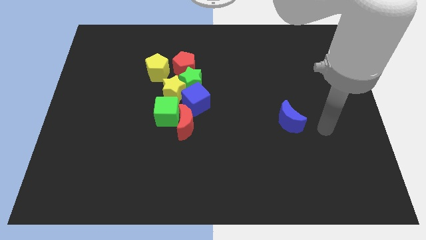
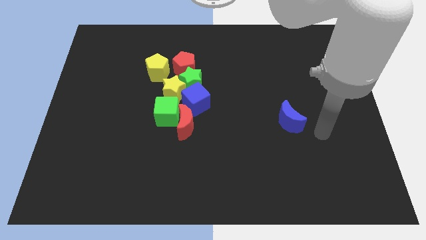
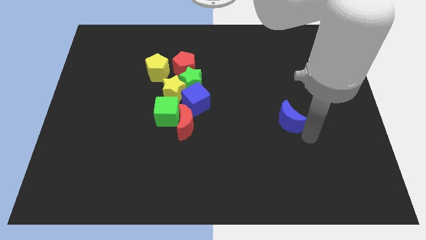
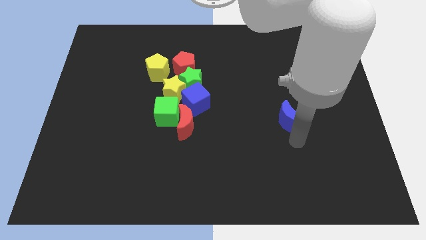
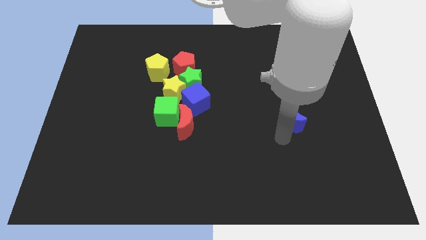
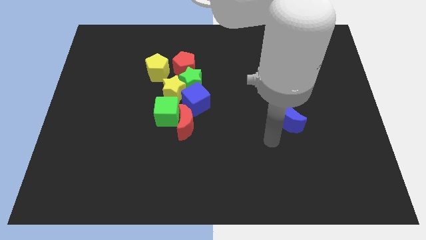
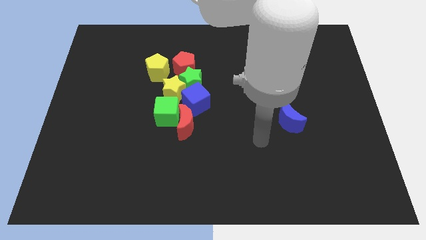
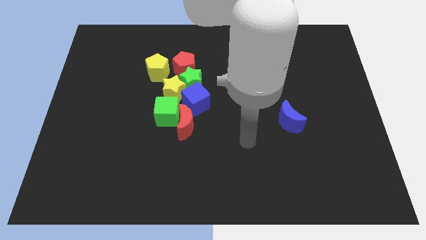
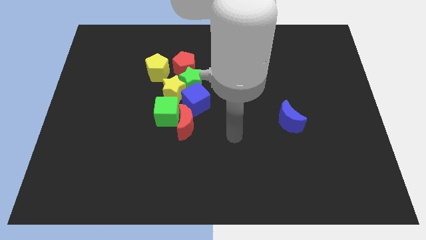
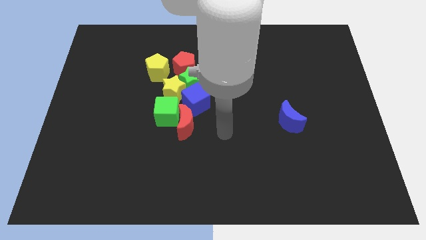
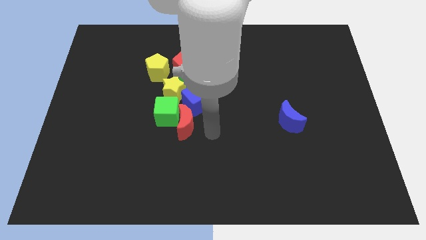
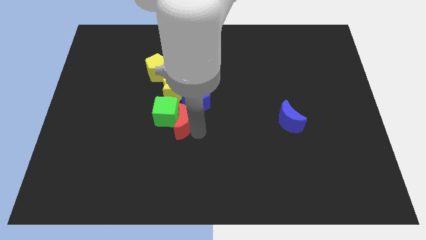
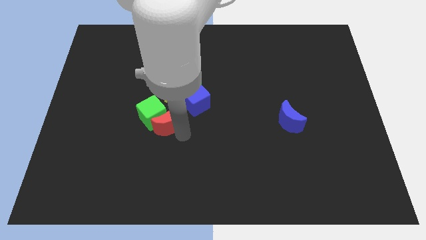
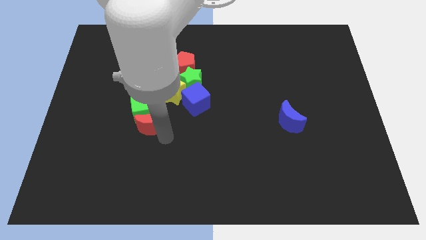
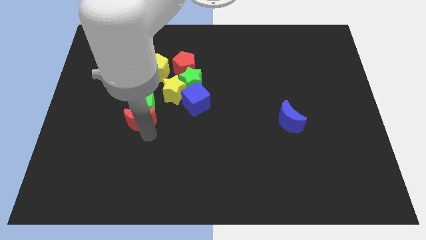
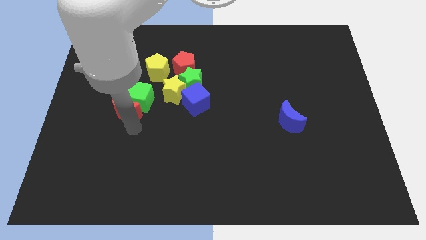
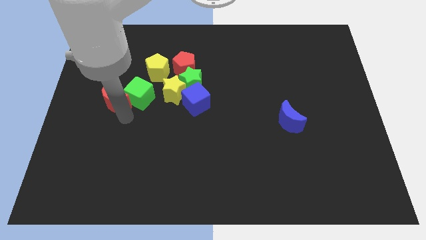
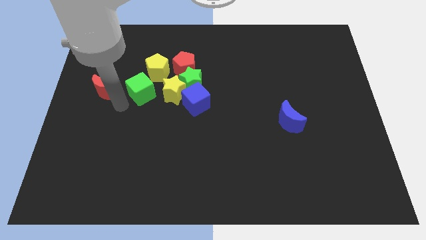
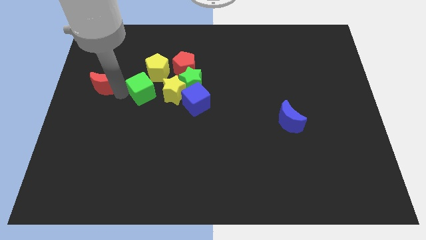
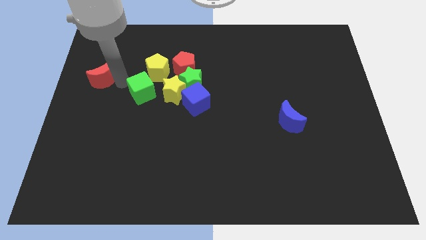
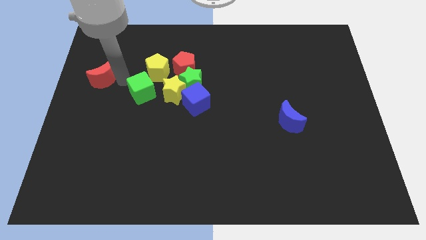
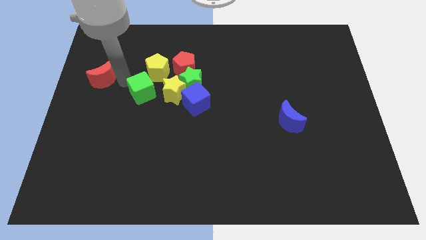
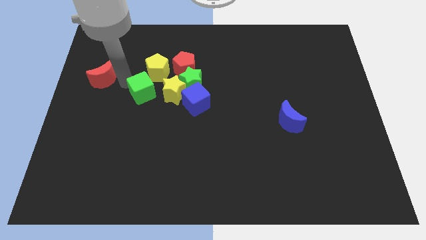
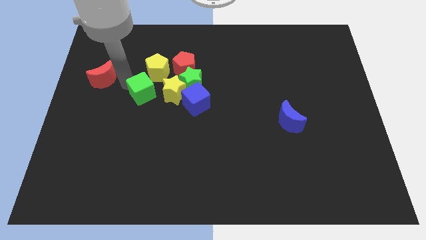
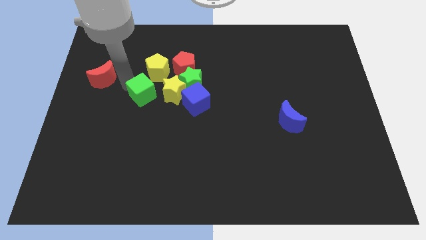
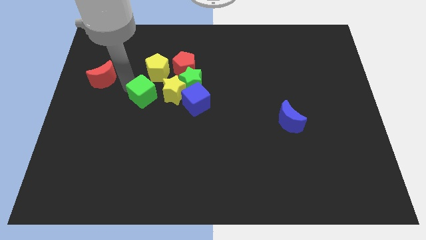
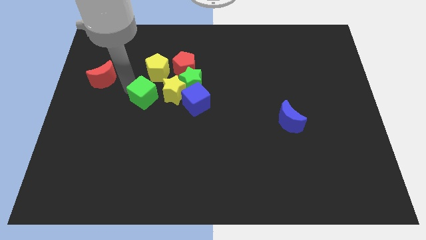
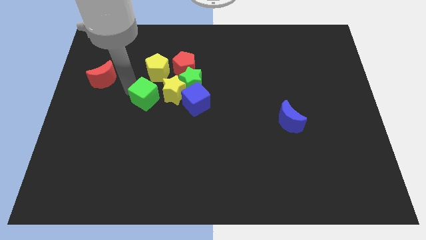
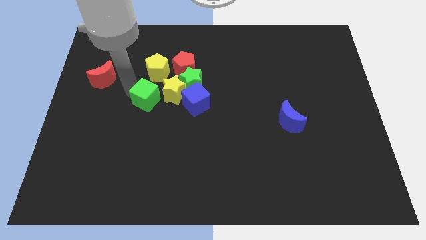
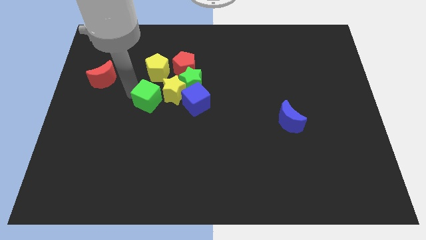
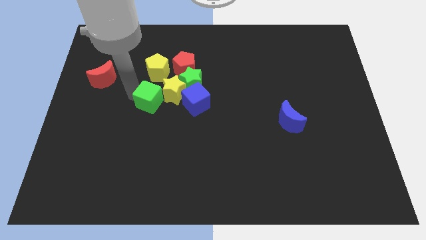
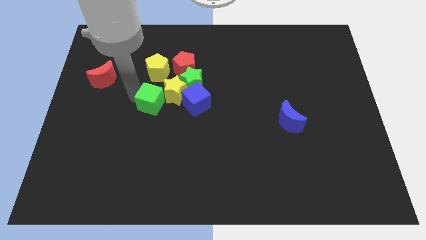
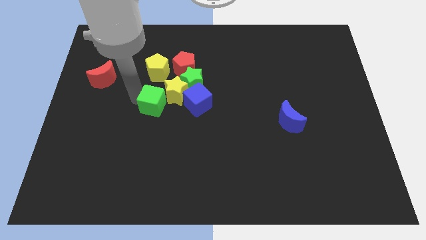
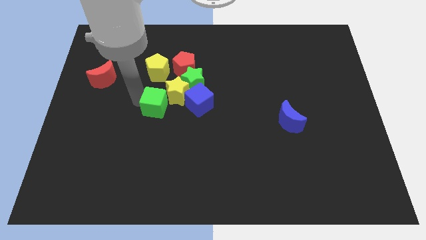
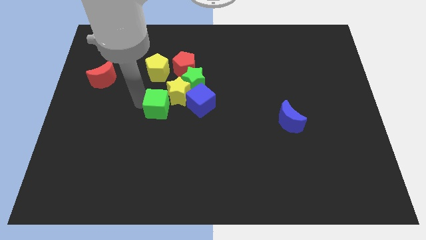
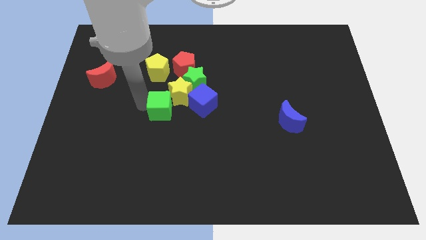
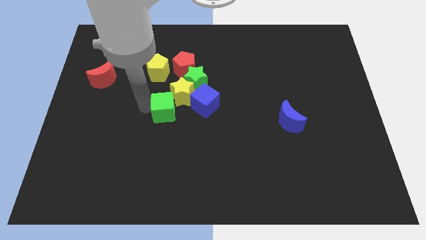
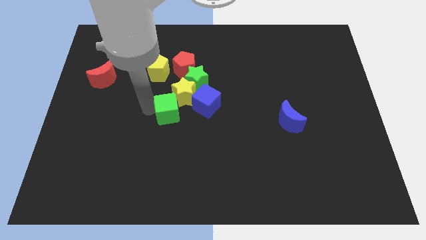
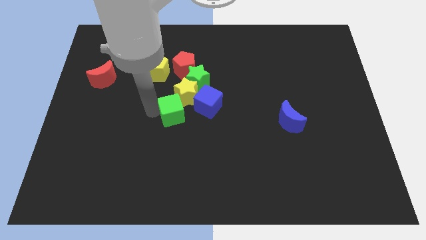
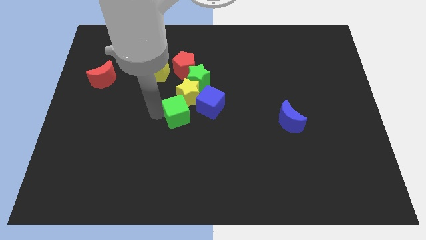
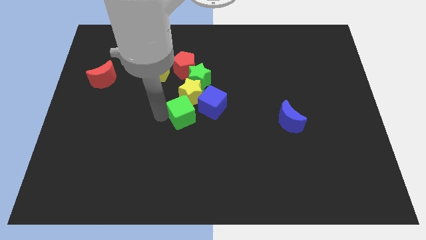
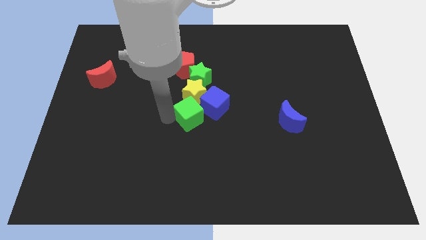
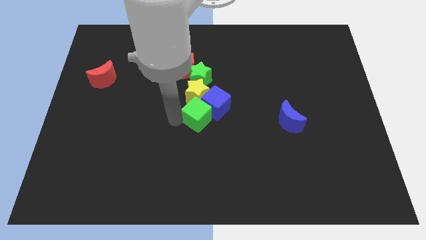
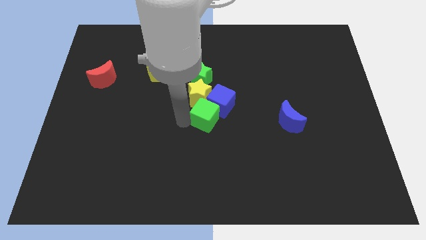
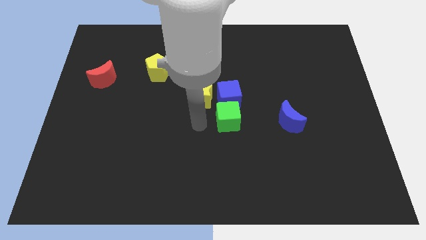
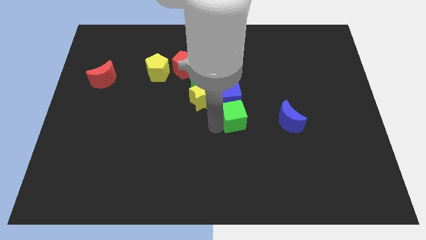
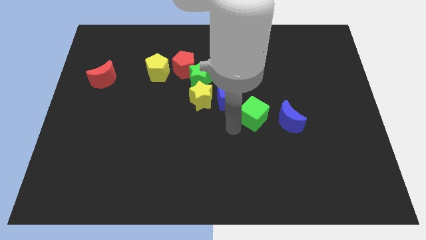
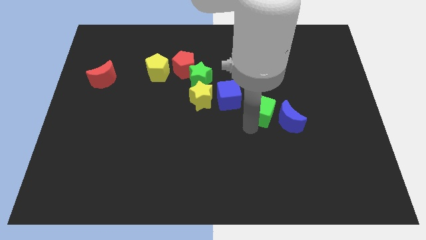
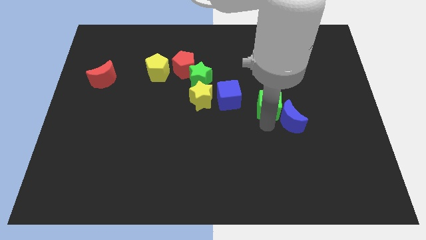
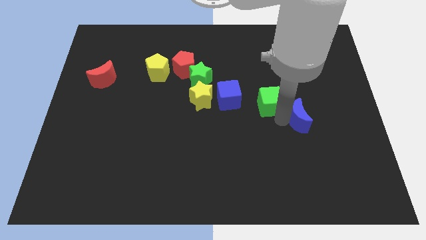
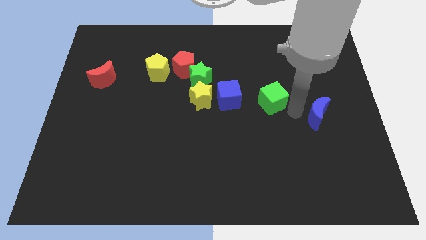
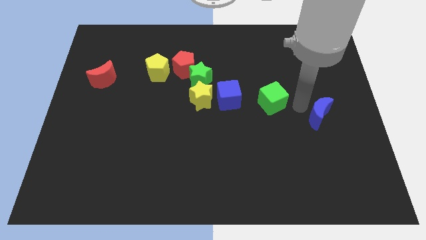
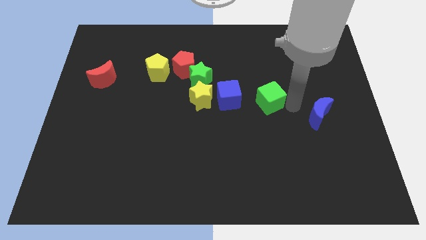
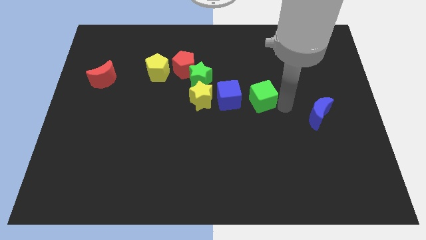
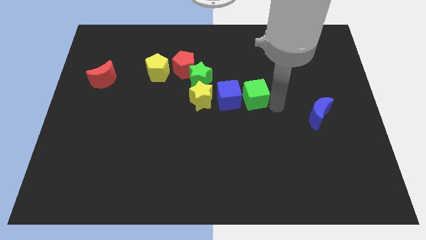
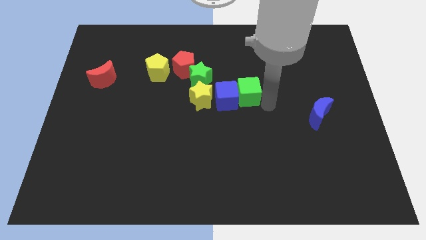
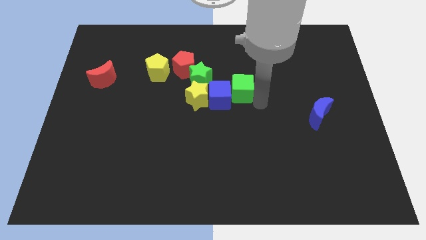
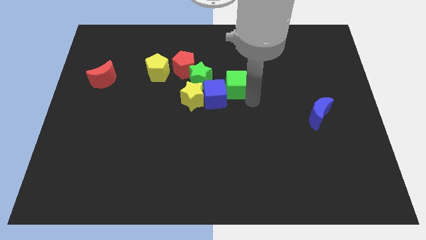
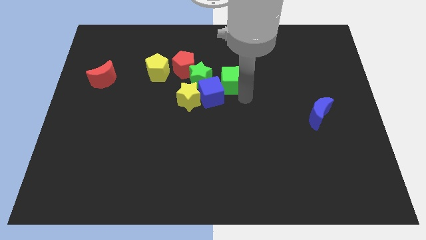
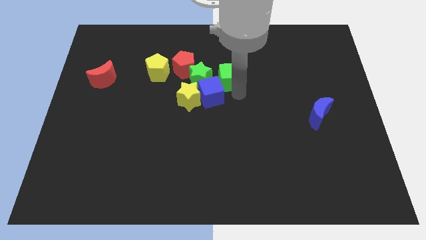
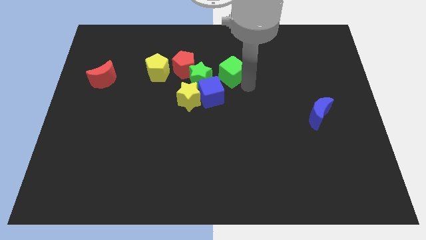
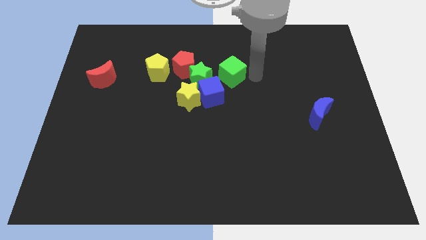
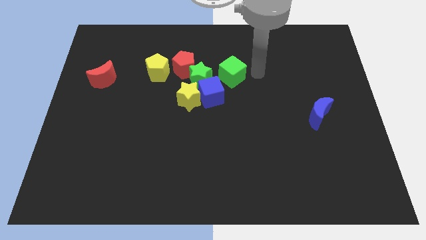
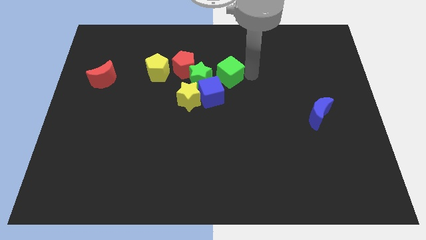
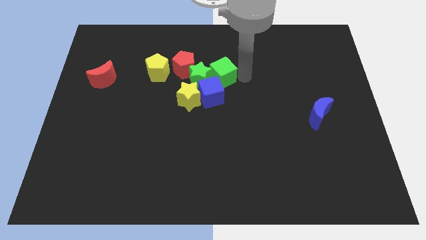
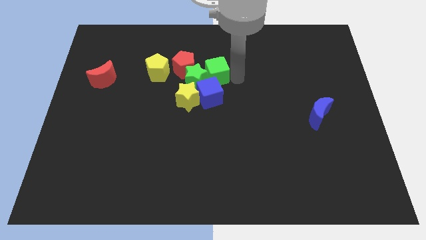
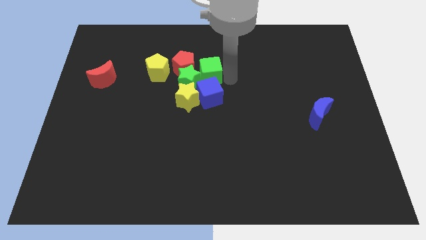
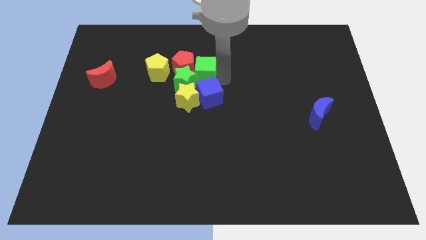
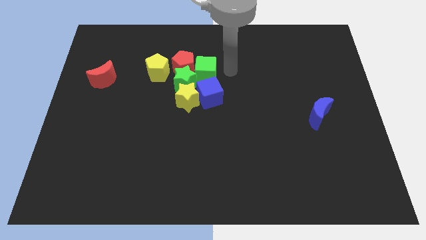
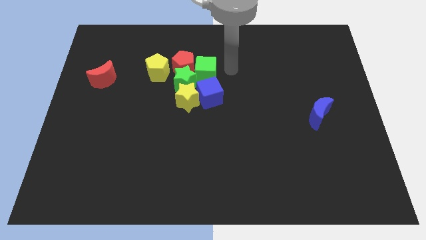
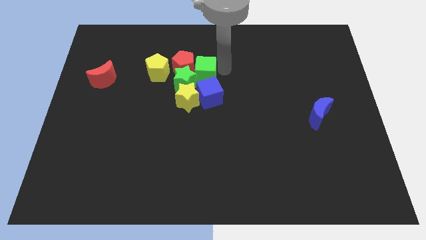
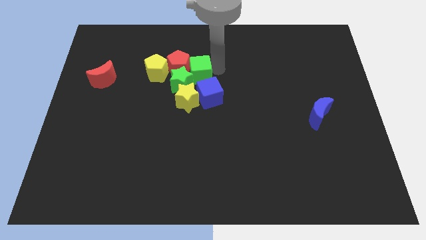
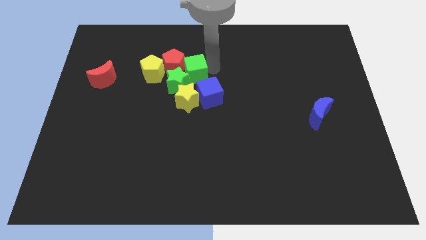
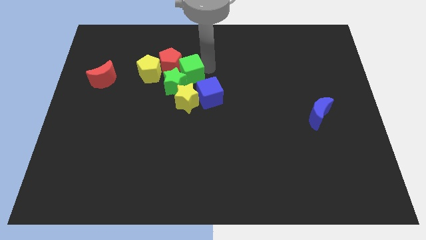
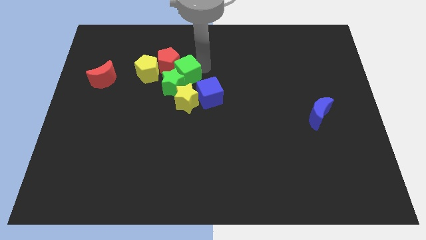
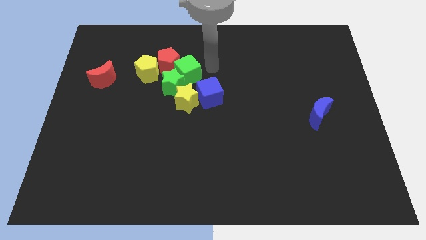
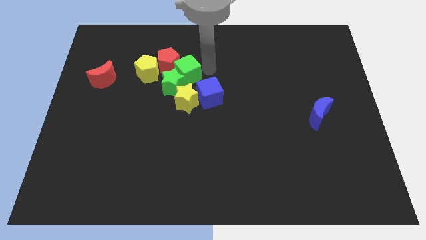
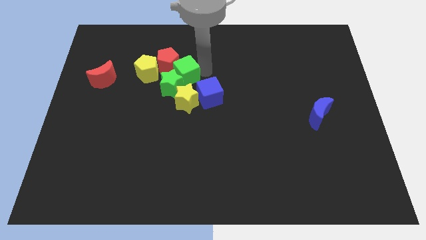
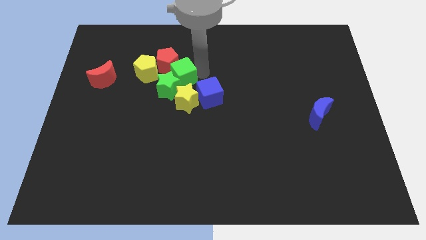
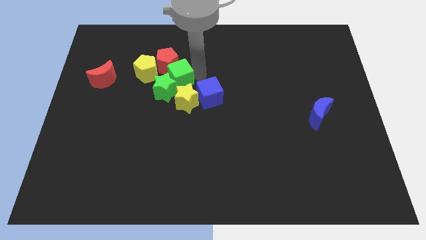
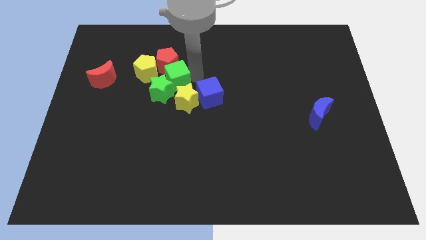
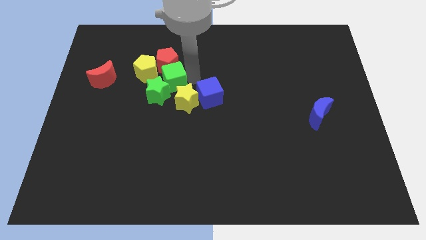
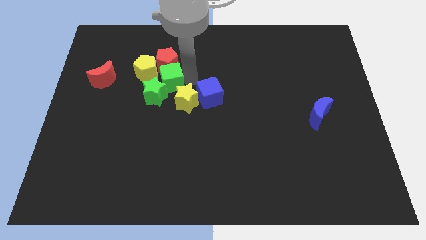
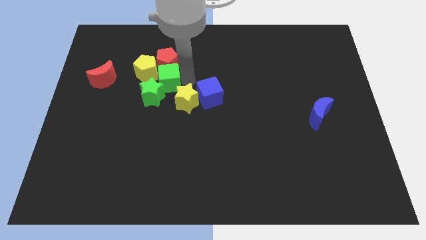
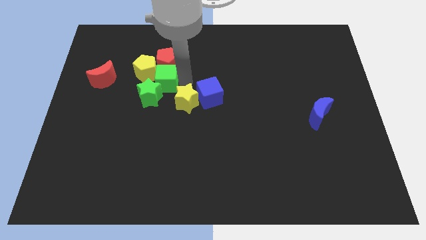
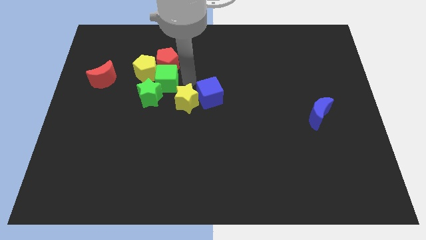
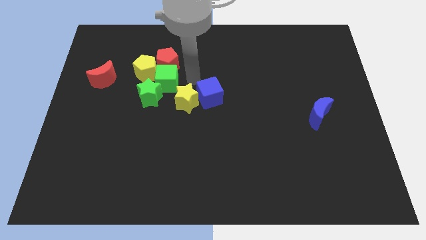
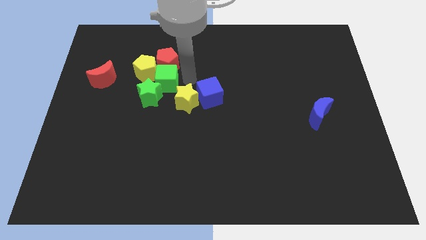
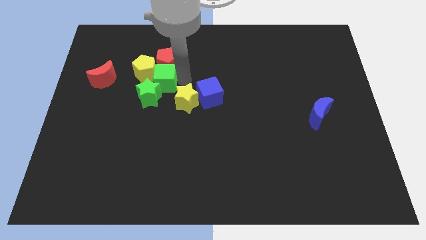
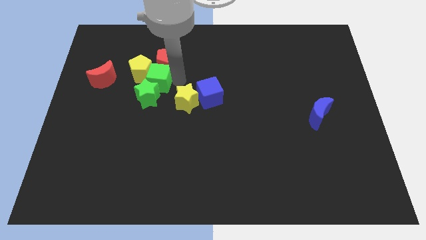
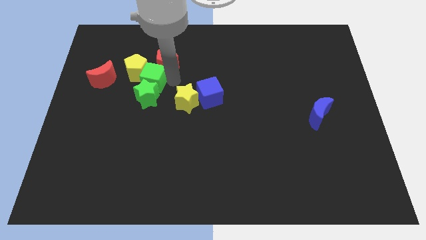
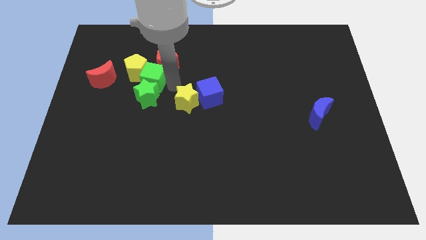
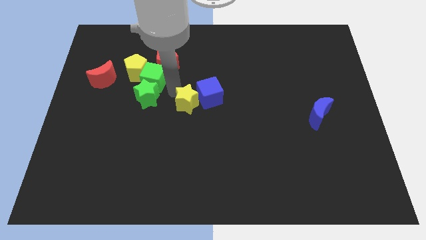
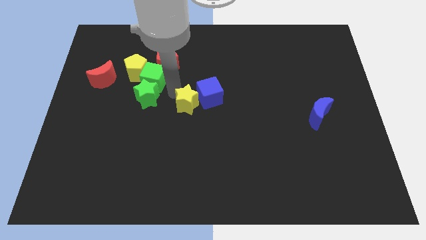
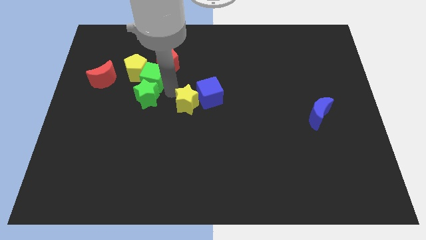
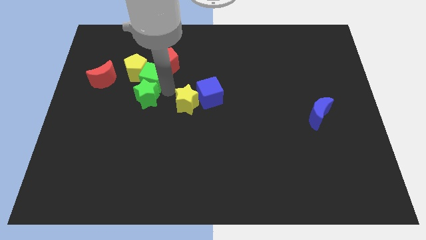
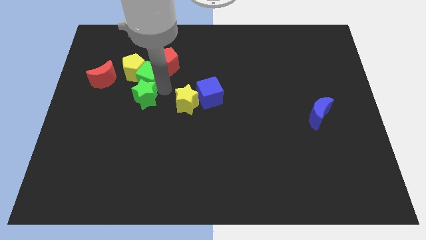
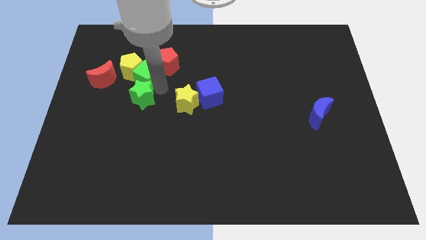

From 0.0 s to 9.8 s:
slide the green cube left of the red pentagon
